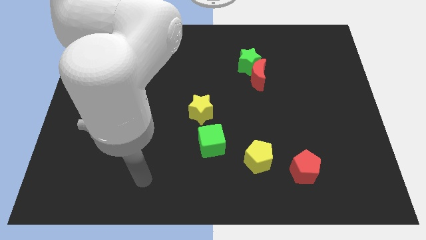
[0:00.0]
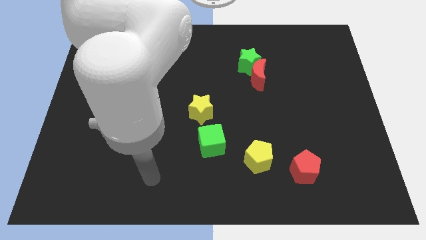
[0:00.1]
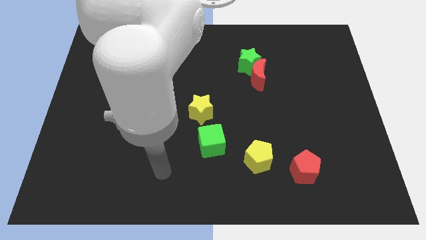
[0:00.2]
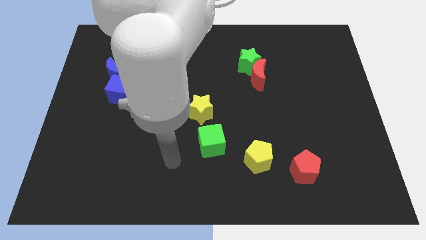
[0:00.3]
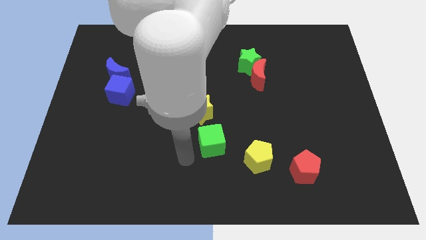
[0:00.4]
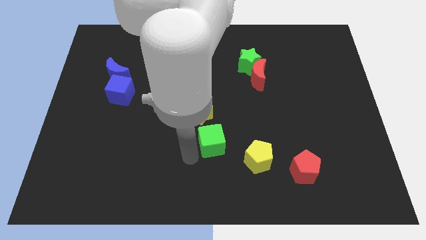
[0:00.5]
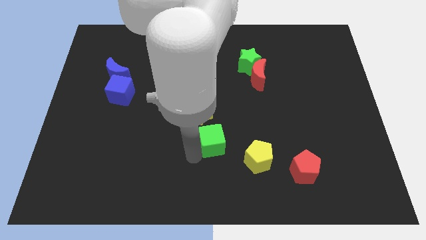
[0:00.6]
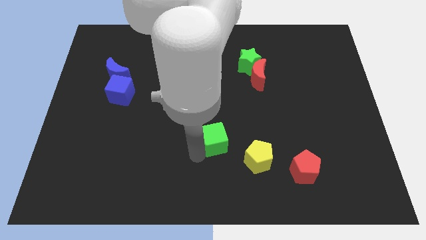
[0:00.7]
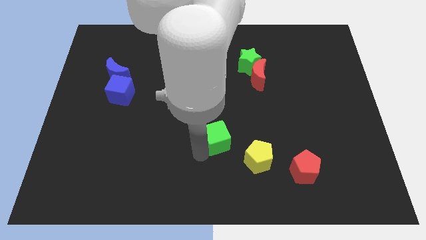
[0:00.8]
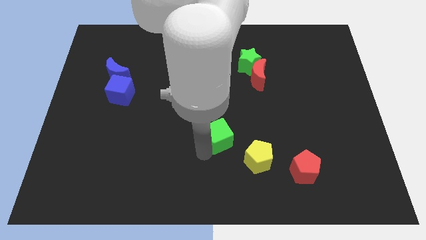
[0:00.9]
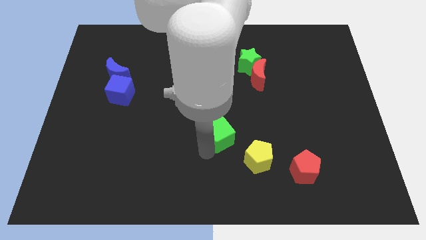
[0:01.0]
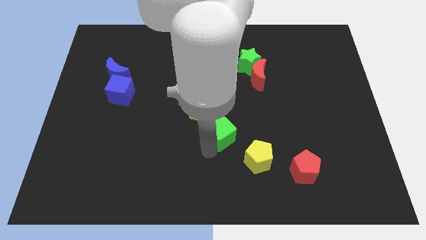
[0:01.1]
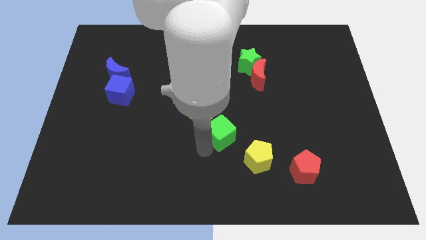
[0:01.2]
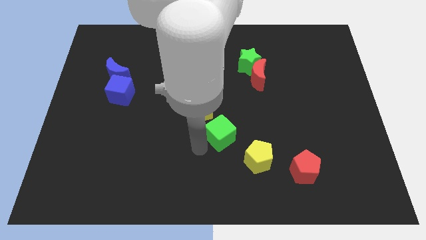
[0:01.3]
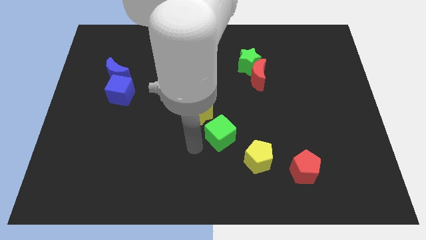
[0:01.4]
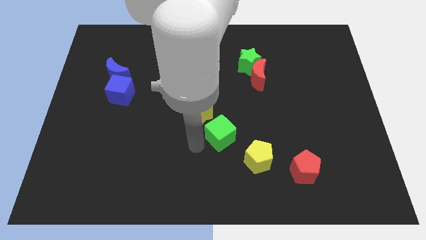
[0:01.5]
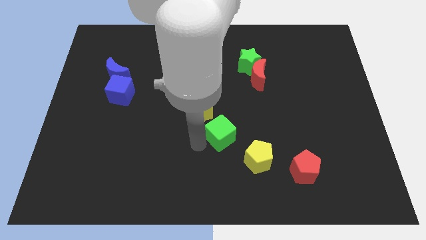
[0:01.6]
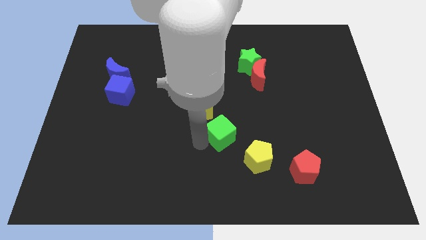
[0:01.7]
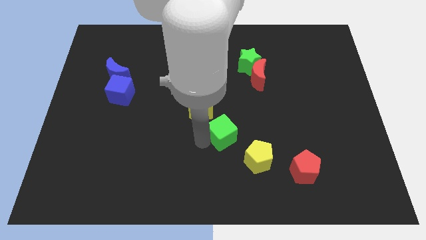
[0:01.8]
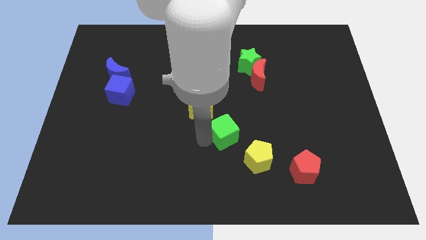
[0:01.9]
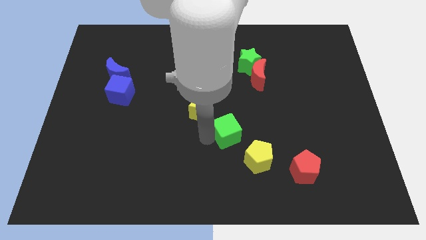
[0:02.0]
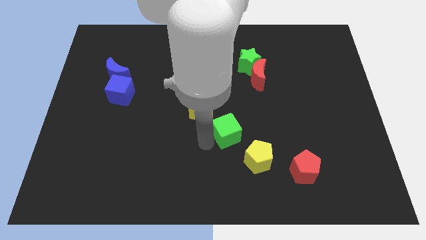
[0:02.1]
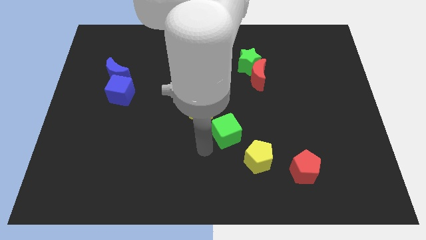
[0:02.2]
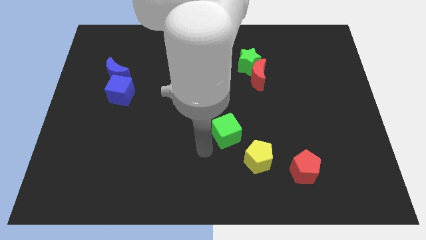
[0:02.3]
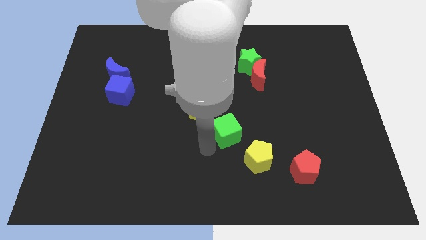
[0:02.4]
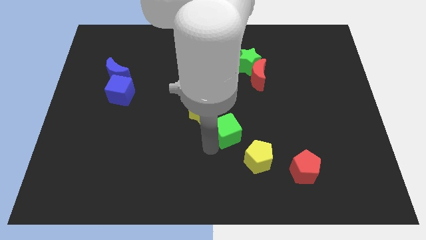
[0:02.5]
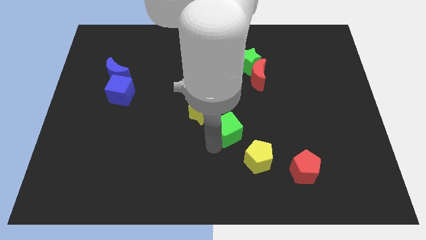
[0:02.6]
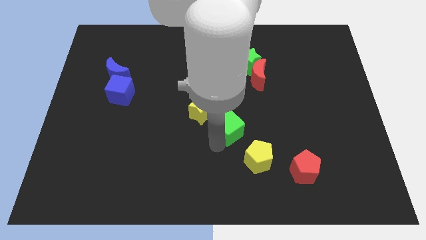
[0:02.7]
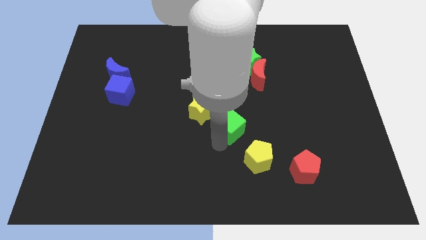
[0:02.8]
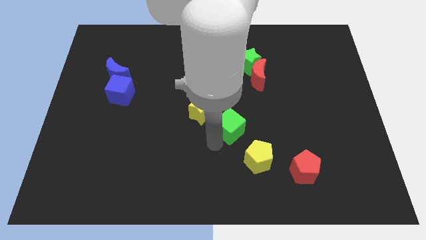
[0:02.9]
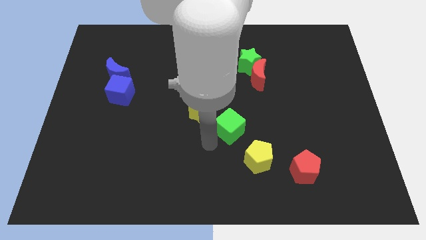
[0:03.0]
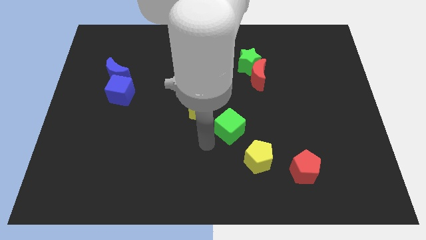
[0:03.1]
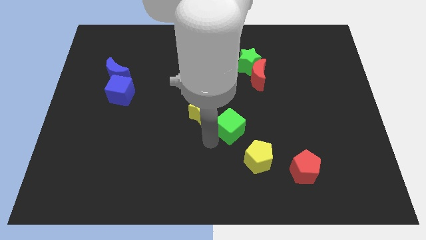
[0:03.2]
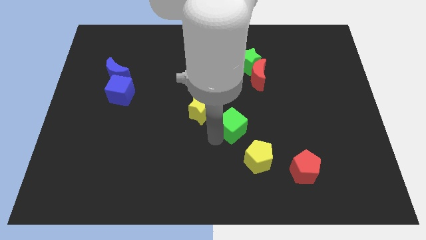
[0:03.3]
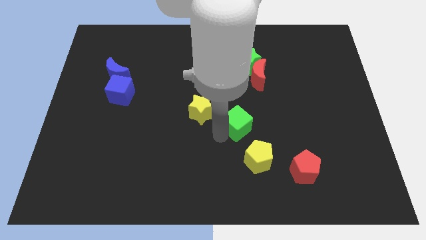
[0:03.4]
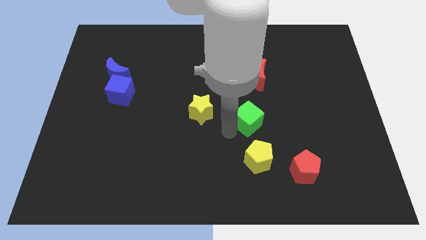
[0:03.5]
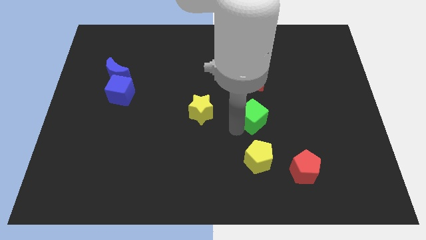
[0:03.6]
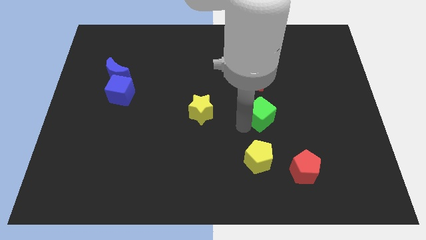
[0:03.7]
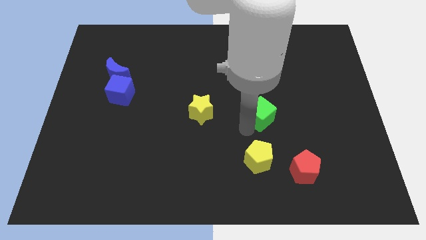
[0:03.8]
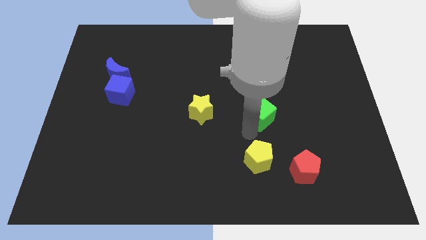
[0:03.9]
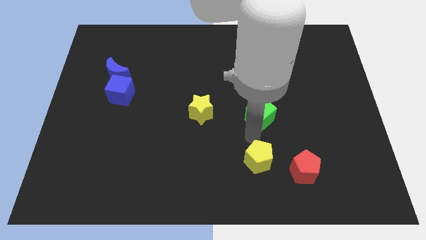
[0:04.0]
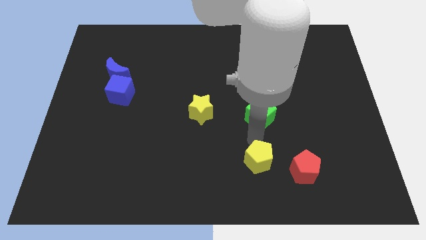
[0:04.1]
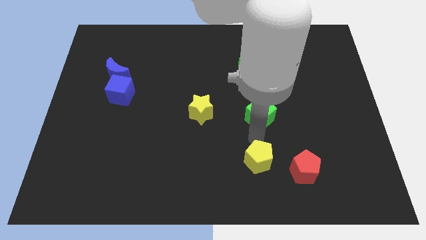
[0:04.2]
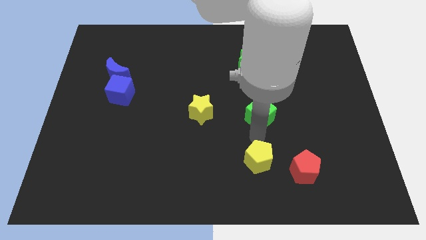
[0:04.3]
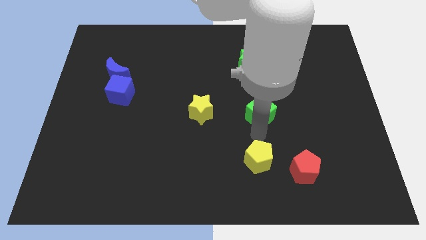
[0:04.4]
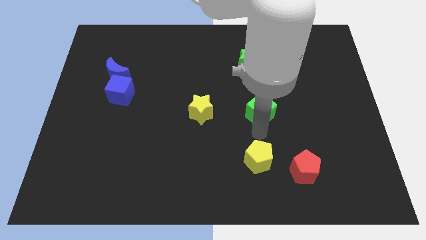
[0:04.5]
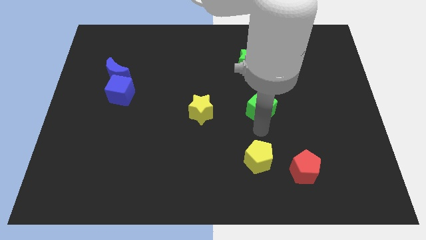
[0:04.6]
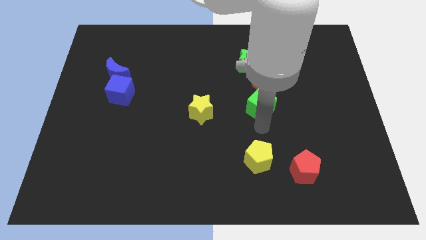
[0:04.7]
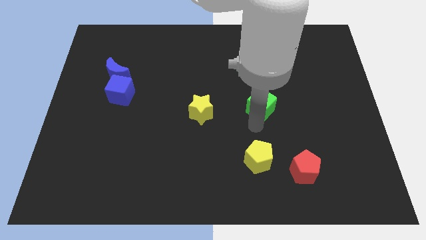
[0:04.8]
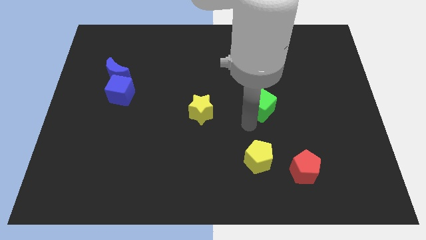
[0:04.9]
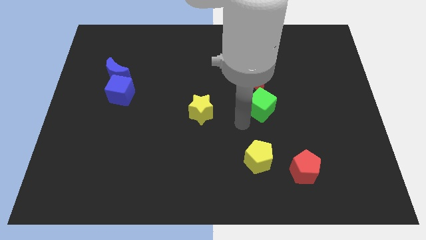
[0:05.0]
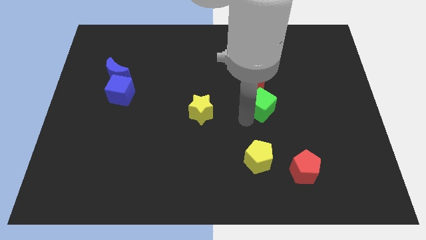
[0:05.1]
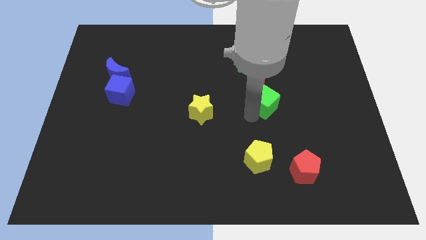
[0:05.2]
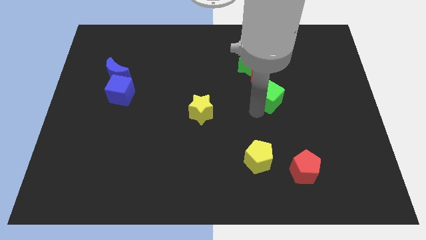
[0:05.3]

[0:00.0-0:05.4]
put the green cube diagonally down and to the right of the red moon
